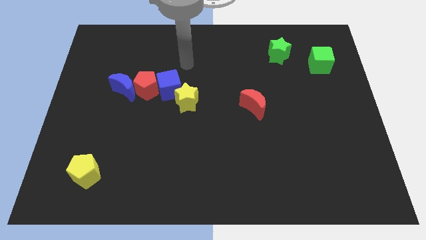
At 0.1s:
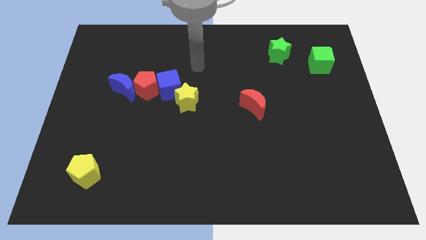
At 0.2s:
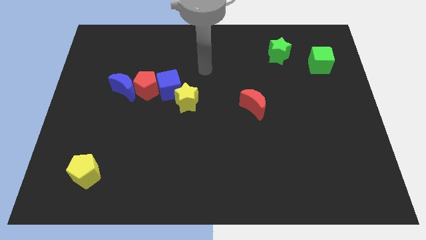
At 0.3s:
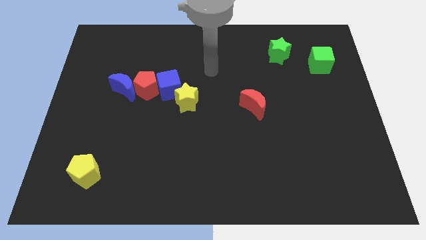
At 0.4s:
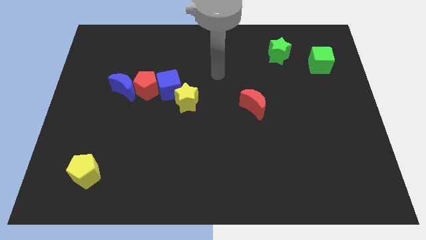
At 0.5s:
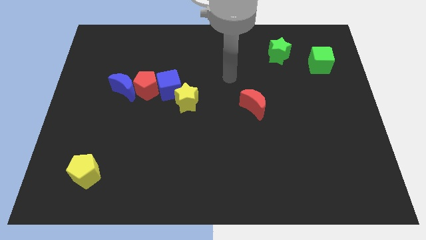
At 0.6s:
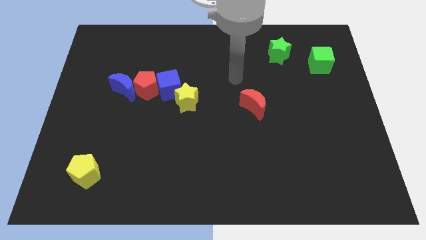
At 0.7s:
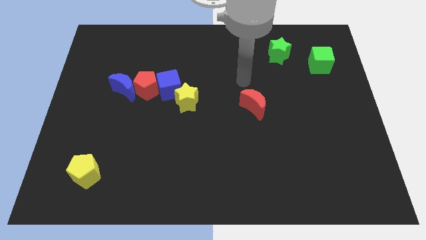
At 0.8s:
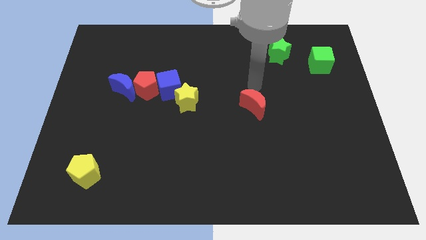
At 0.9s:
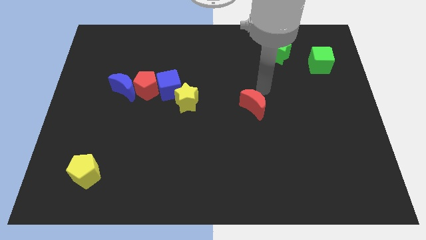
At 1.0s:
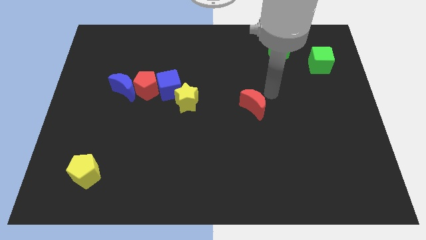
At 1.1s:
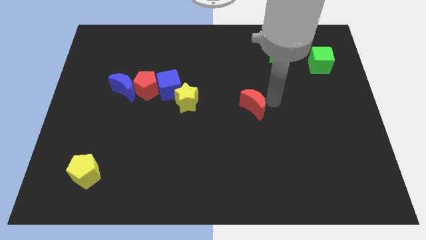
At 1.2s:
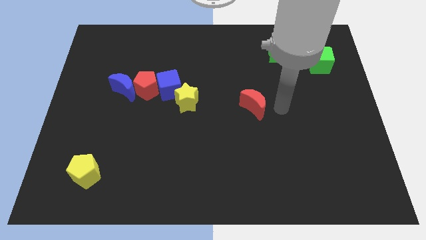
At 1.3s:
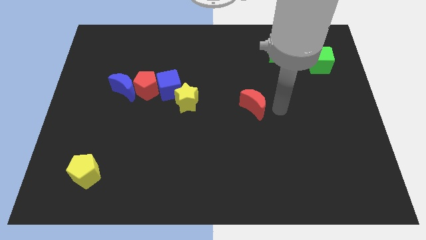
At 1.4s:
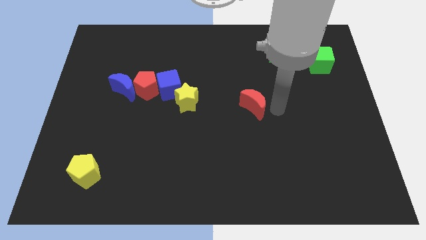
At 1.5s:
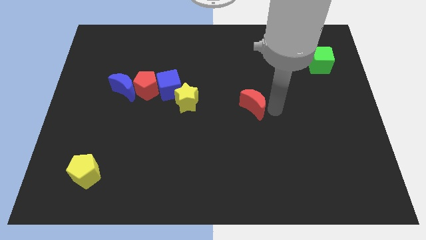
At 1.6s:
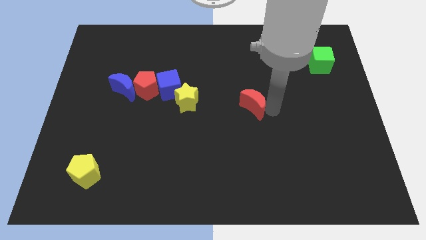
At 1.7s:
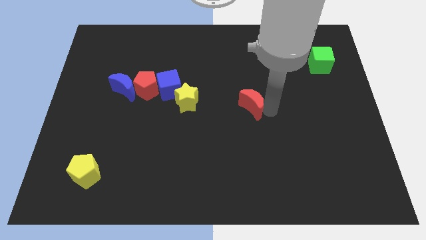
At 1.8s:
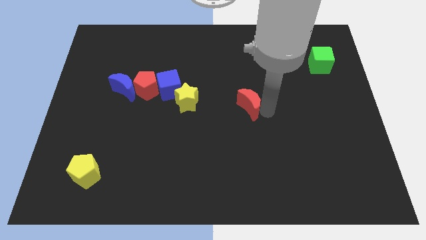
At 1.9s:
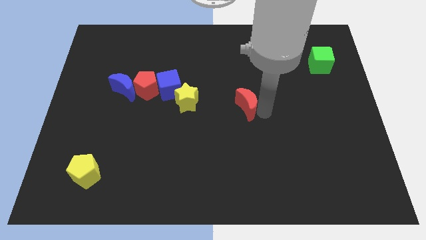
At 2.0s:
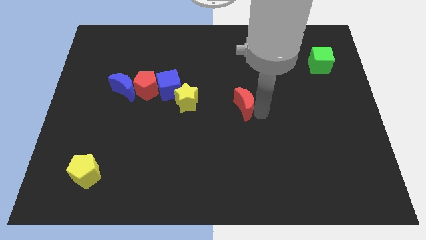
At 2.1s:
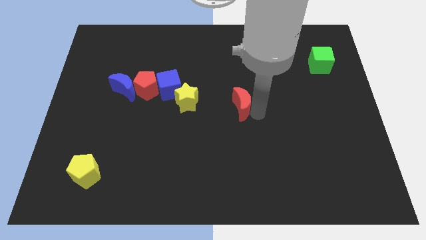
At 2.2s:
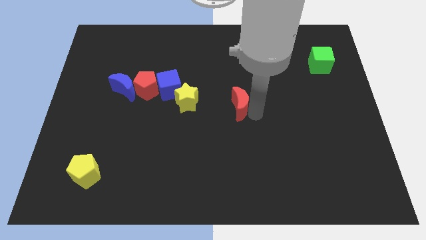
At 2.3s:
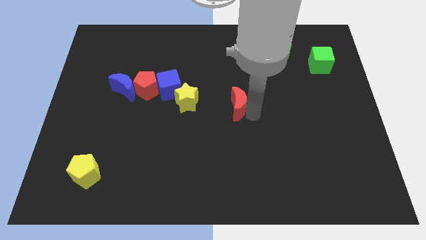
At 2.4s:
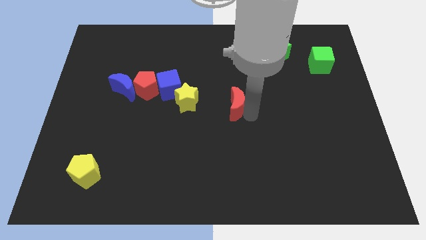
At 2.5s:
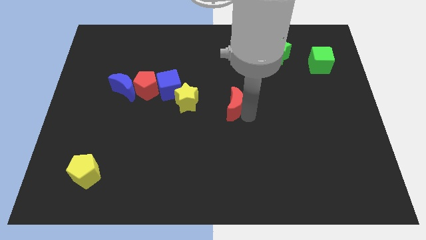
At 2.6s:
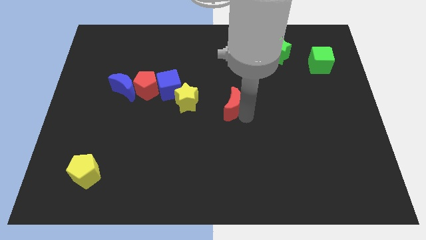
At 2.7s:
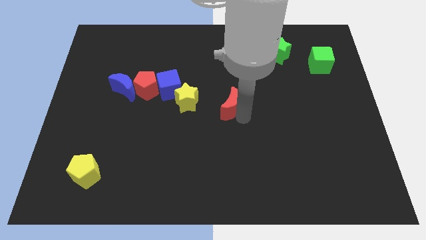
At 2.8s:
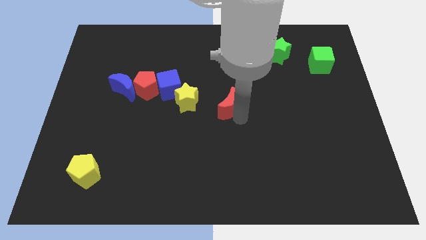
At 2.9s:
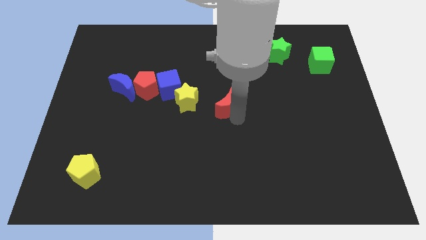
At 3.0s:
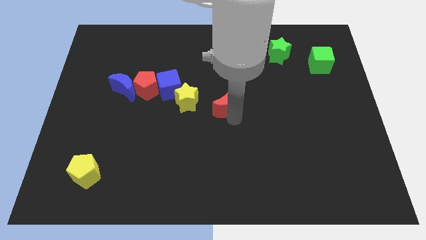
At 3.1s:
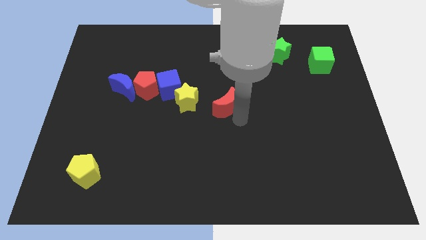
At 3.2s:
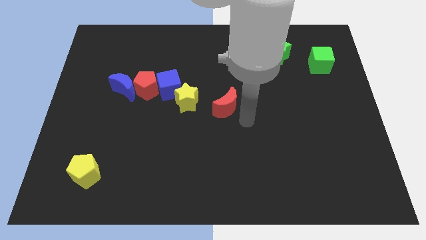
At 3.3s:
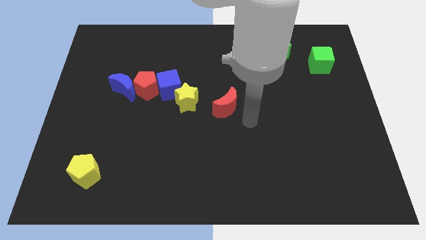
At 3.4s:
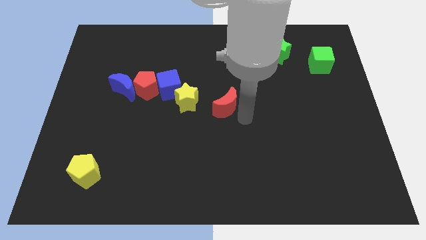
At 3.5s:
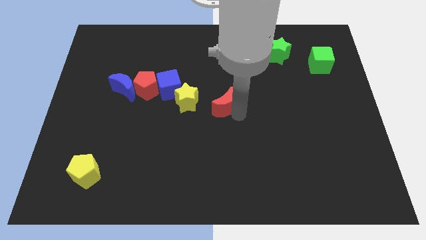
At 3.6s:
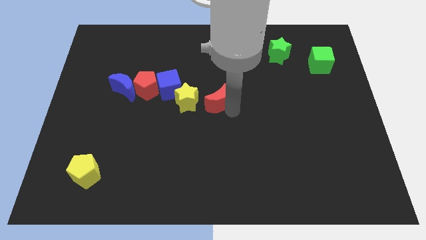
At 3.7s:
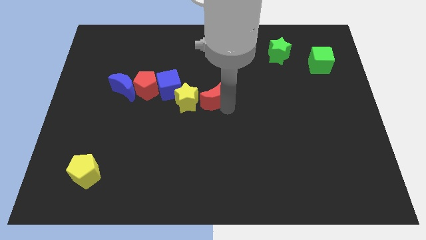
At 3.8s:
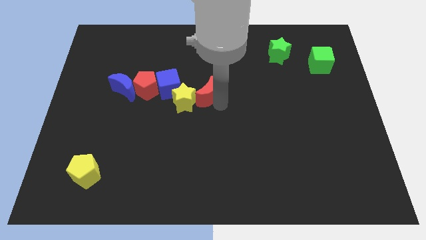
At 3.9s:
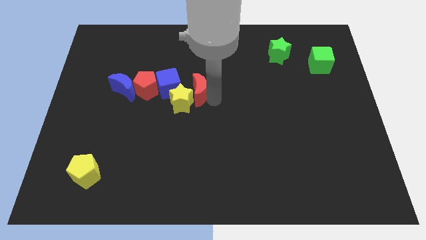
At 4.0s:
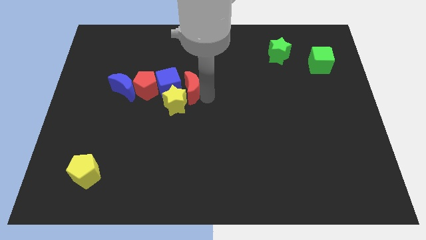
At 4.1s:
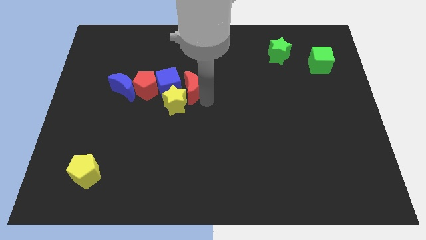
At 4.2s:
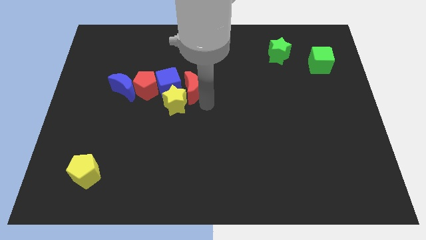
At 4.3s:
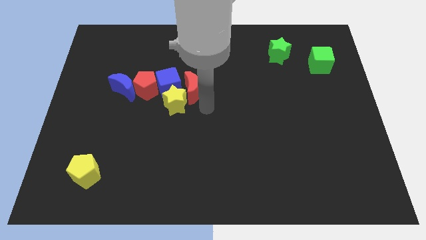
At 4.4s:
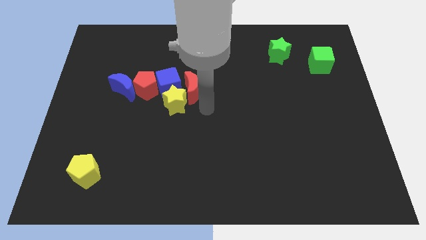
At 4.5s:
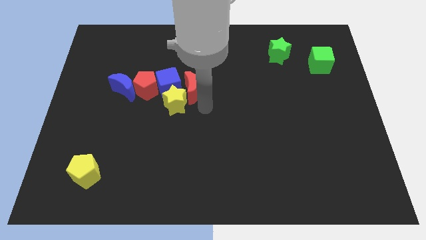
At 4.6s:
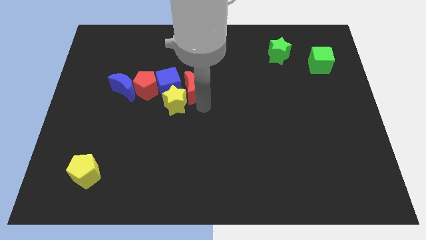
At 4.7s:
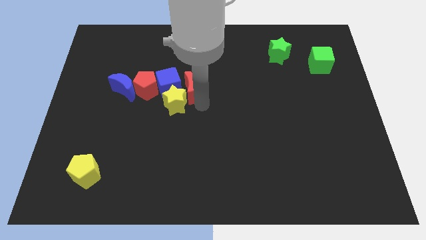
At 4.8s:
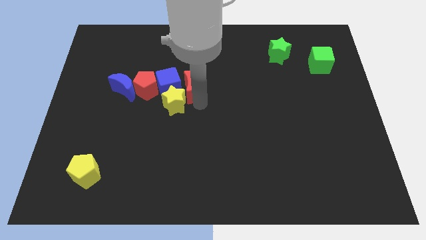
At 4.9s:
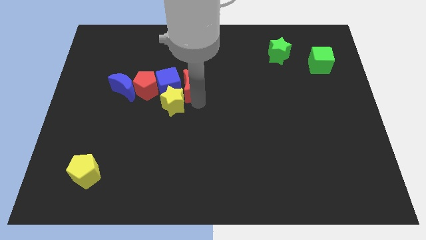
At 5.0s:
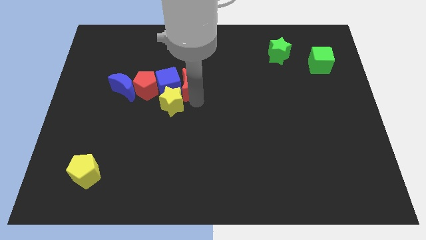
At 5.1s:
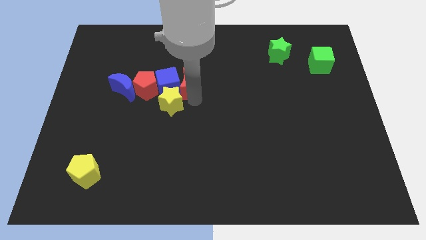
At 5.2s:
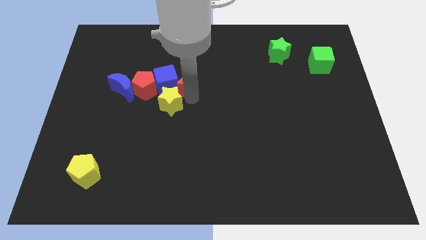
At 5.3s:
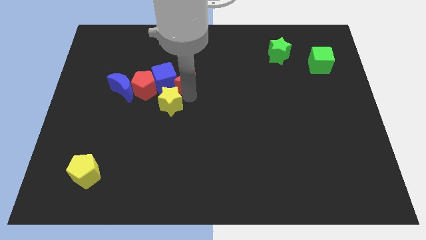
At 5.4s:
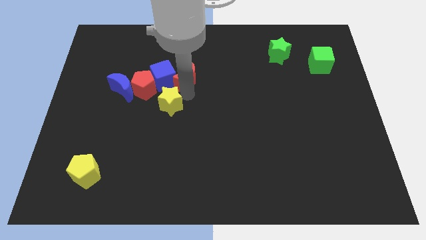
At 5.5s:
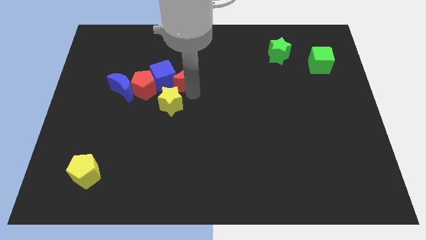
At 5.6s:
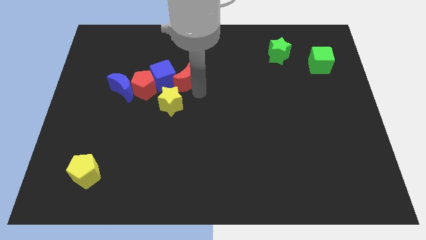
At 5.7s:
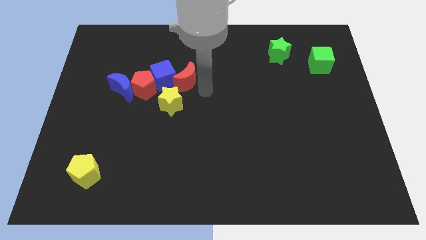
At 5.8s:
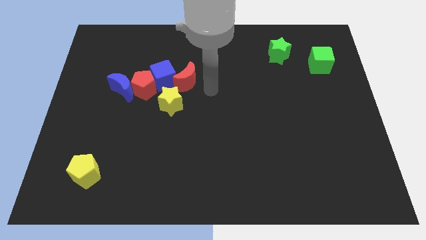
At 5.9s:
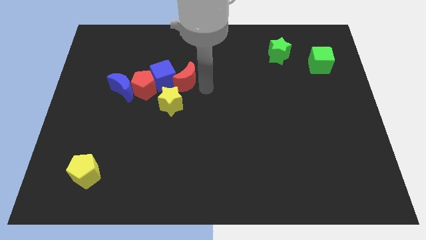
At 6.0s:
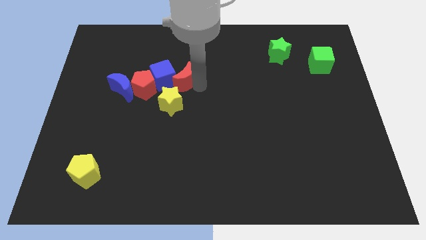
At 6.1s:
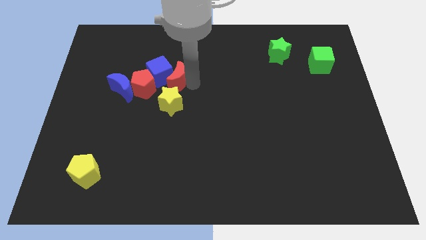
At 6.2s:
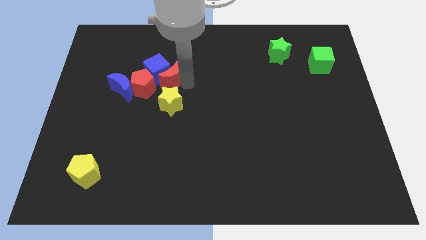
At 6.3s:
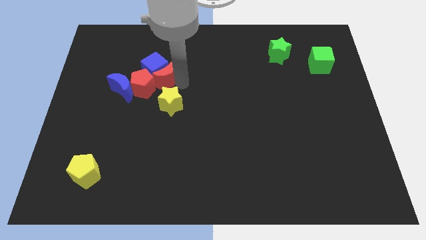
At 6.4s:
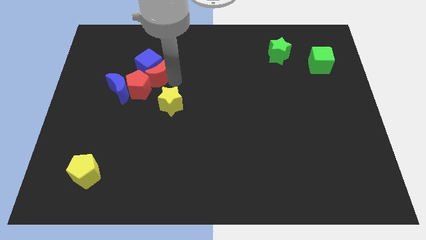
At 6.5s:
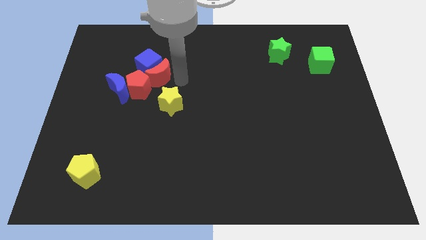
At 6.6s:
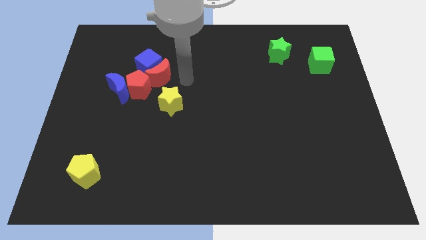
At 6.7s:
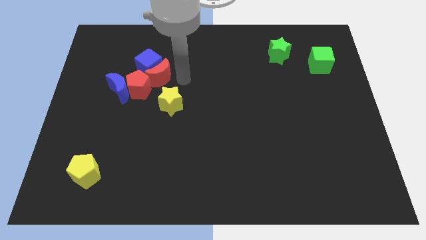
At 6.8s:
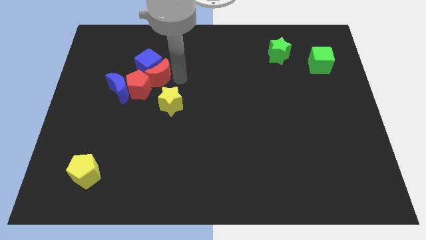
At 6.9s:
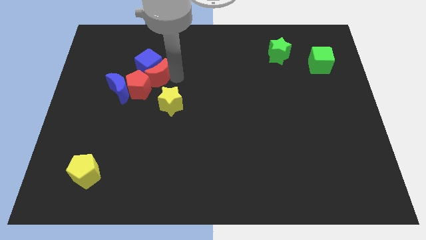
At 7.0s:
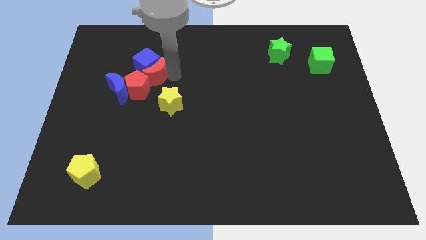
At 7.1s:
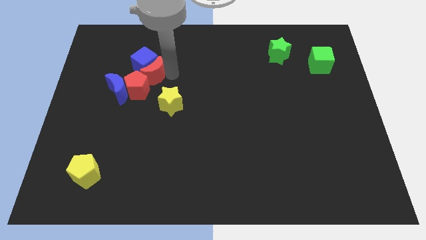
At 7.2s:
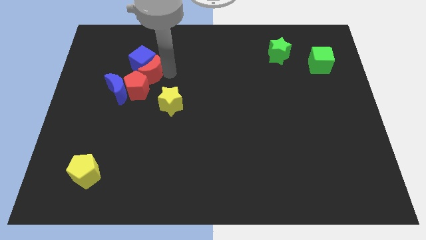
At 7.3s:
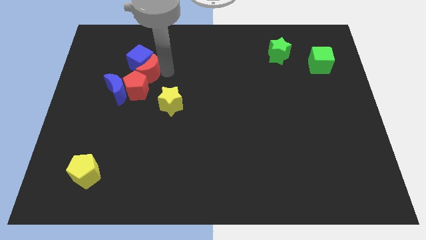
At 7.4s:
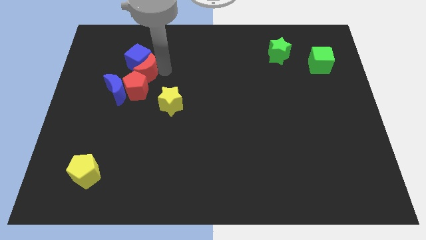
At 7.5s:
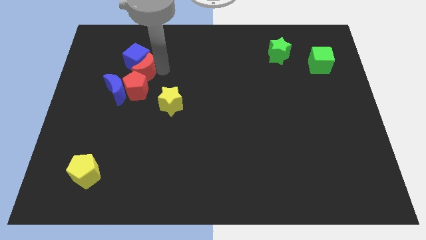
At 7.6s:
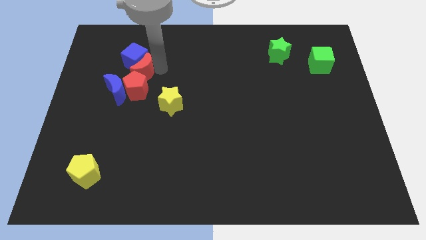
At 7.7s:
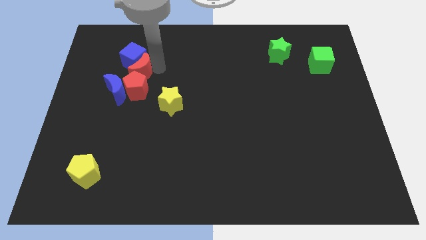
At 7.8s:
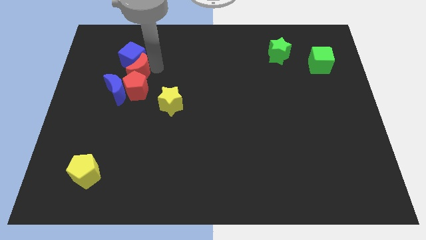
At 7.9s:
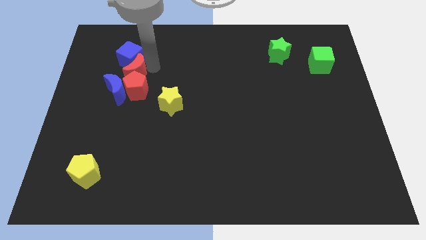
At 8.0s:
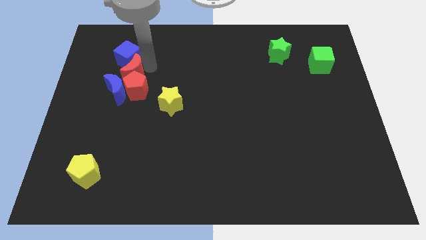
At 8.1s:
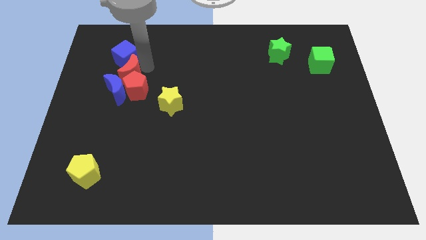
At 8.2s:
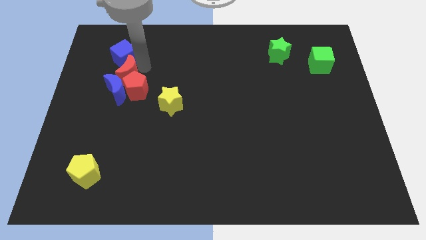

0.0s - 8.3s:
move the red moon close to the blue moon

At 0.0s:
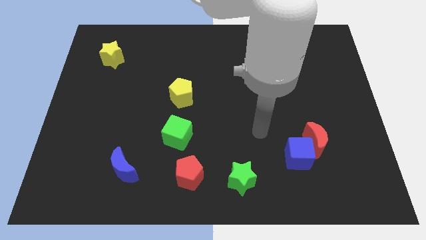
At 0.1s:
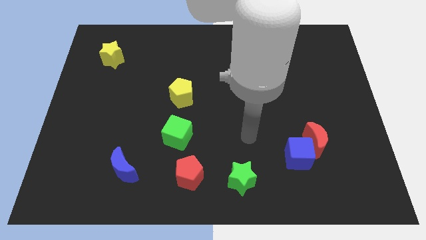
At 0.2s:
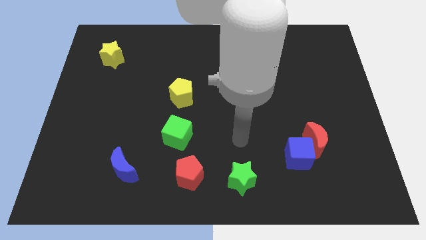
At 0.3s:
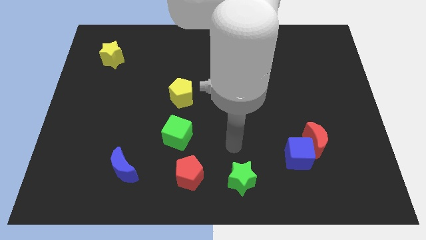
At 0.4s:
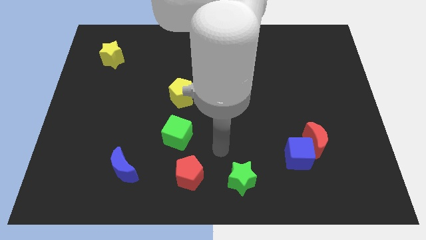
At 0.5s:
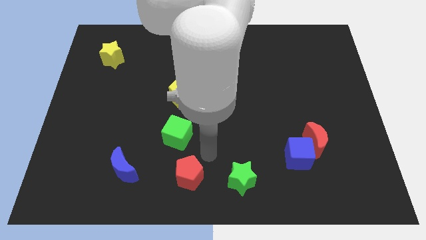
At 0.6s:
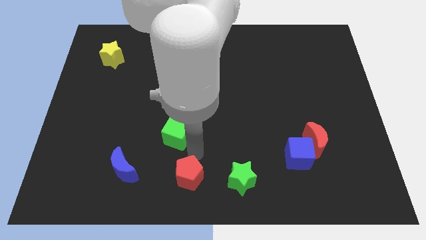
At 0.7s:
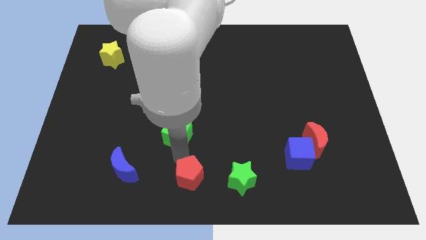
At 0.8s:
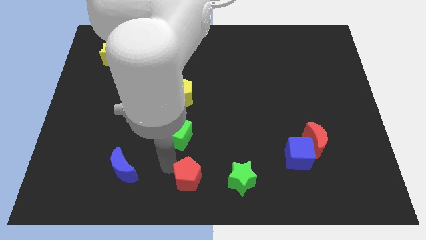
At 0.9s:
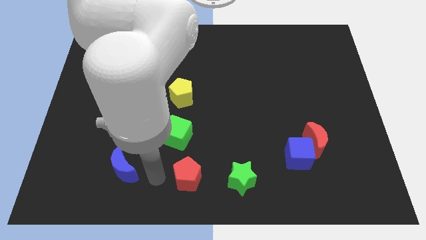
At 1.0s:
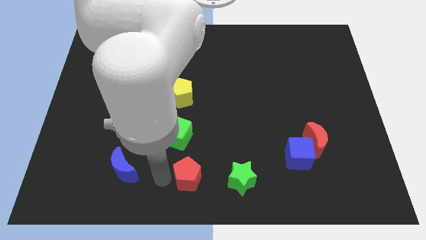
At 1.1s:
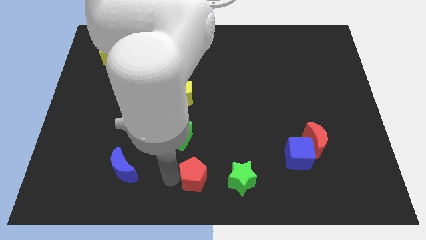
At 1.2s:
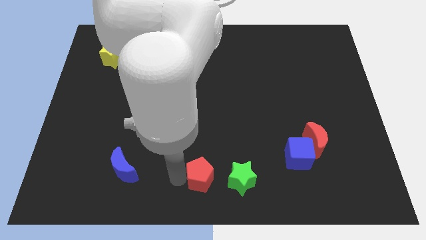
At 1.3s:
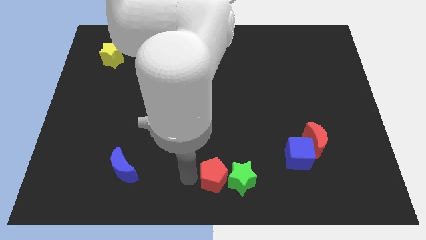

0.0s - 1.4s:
push the red pentagon to the green star
